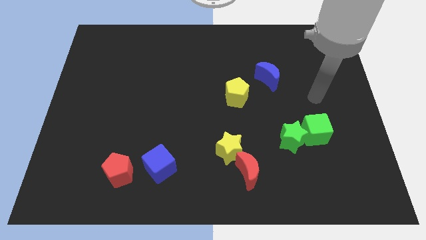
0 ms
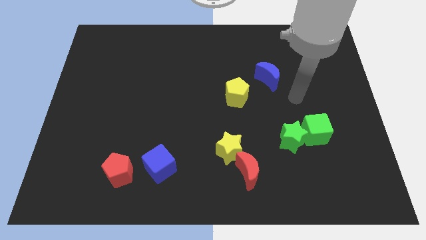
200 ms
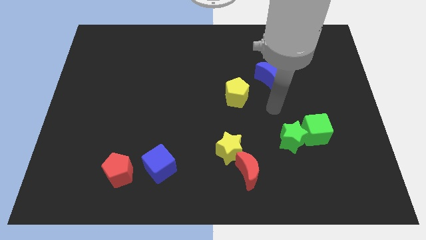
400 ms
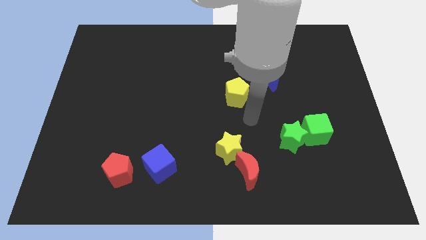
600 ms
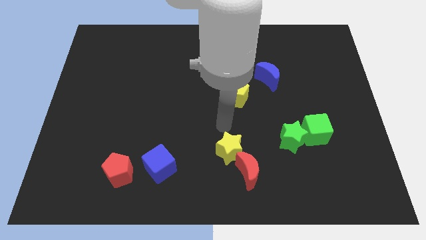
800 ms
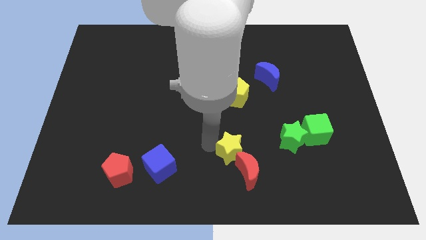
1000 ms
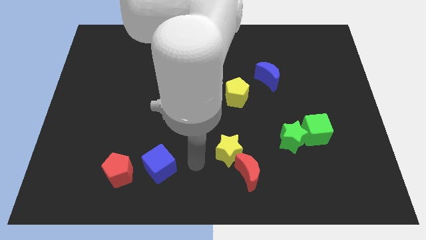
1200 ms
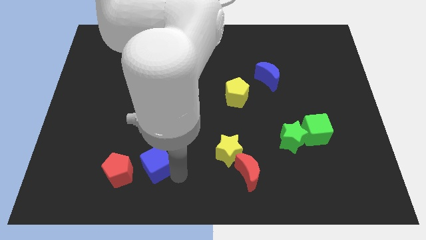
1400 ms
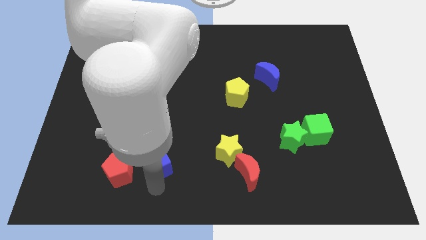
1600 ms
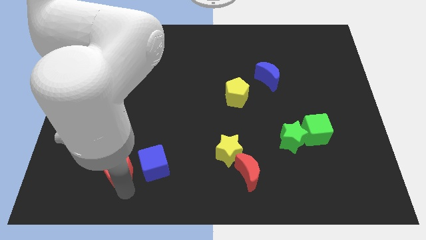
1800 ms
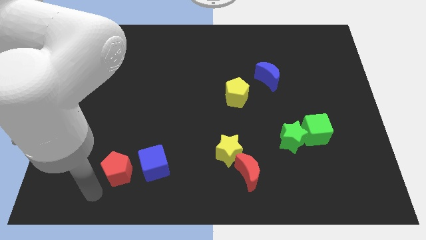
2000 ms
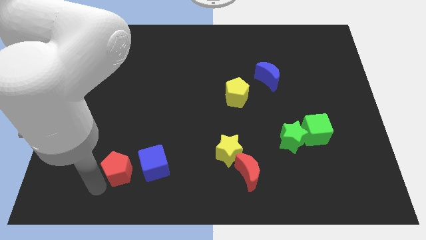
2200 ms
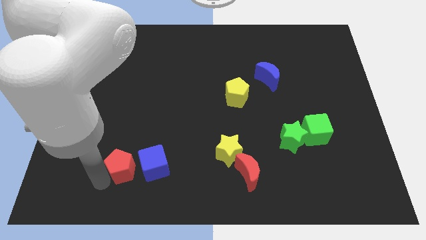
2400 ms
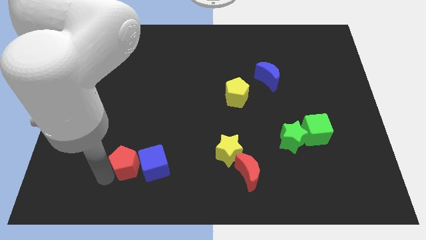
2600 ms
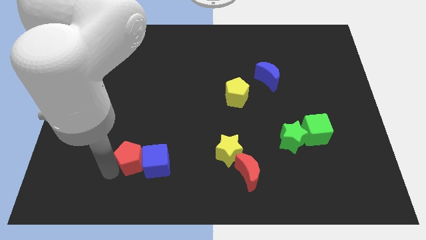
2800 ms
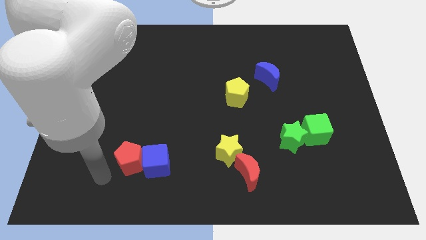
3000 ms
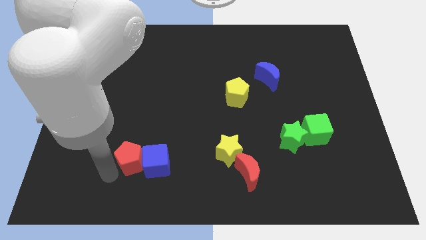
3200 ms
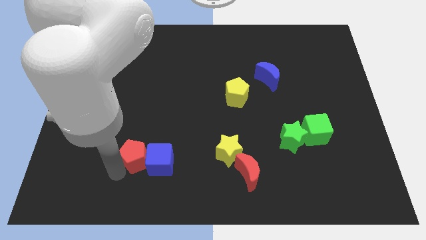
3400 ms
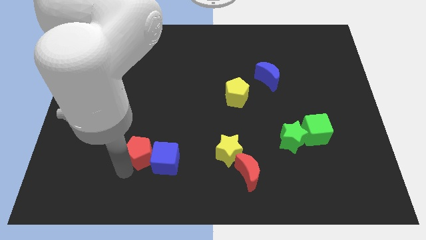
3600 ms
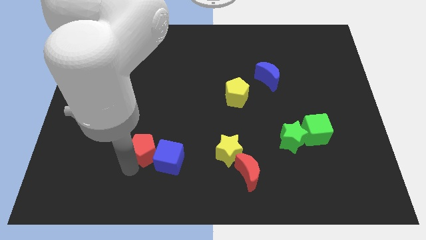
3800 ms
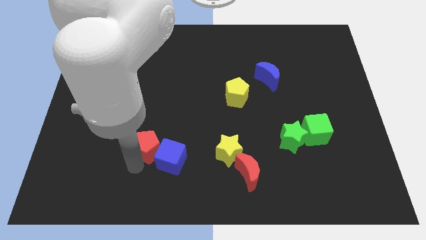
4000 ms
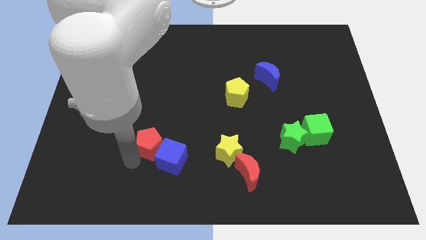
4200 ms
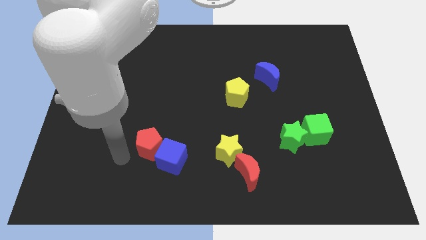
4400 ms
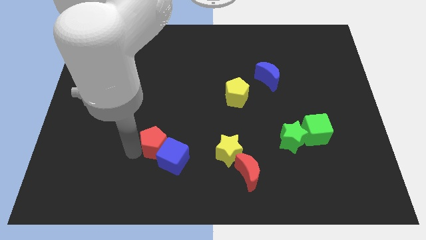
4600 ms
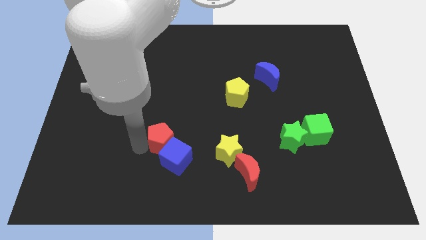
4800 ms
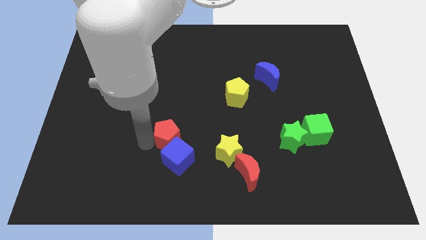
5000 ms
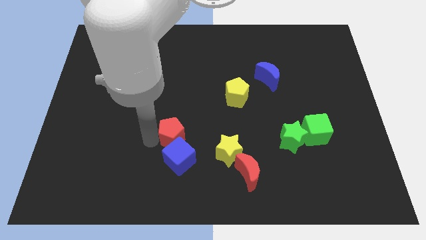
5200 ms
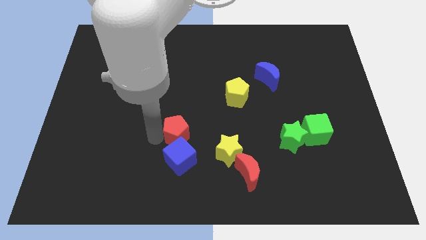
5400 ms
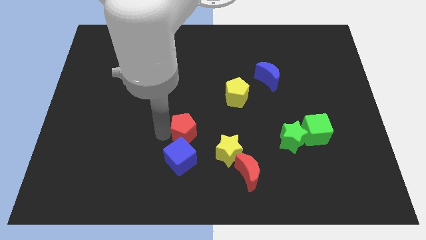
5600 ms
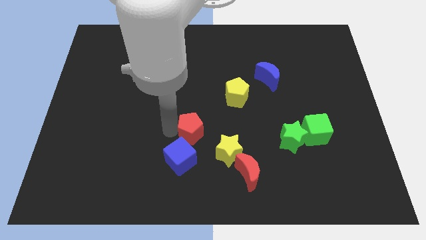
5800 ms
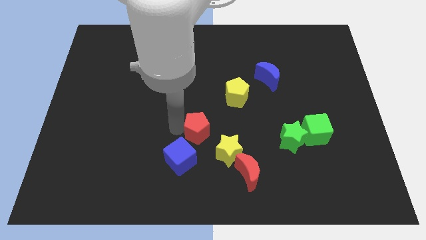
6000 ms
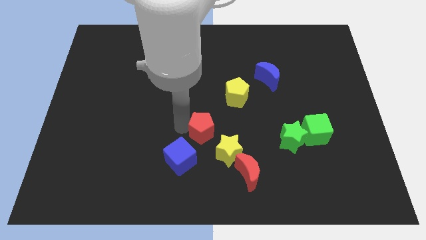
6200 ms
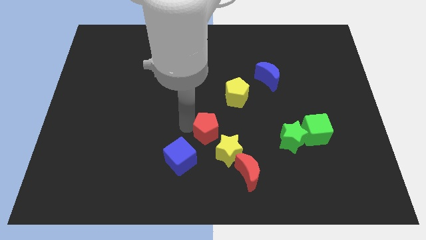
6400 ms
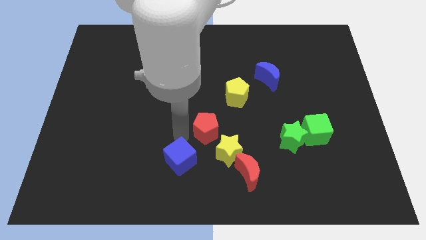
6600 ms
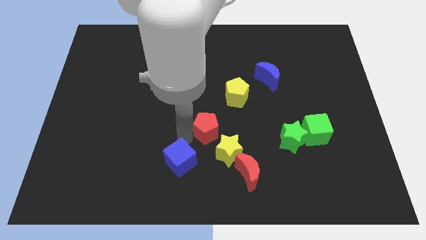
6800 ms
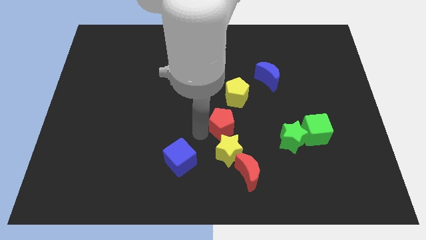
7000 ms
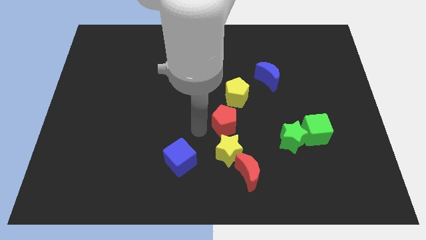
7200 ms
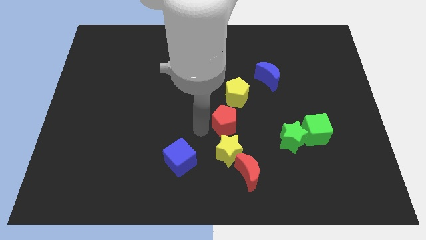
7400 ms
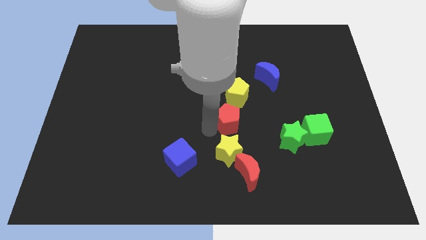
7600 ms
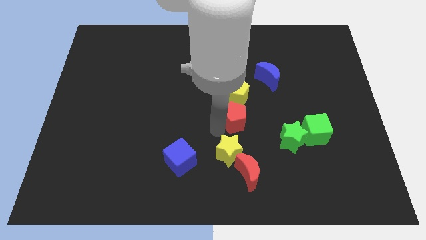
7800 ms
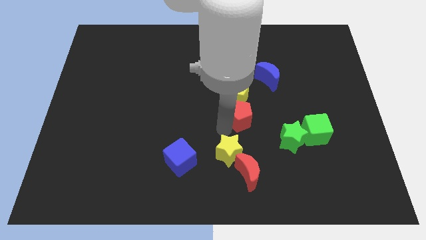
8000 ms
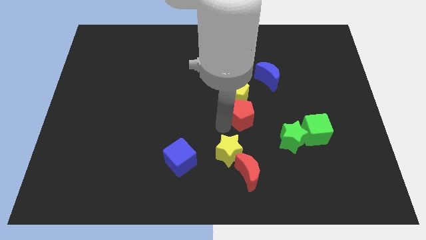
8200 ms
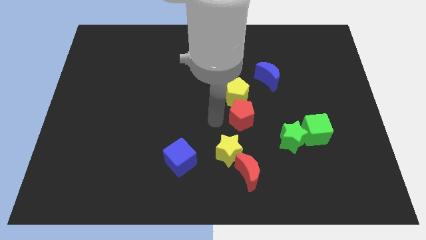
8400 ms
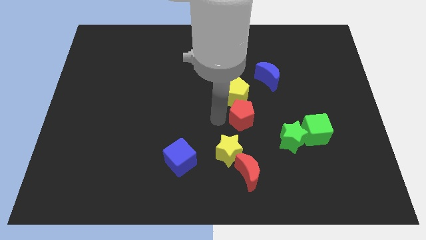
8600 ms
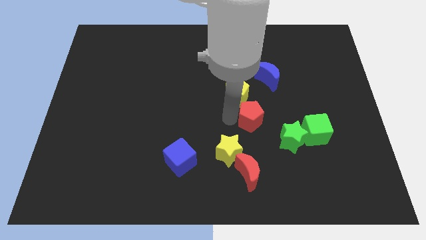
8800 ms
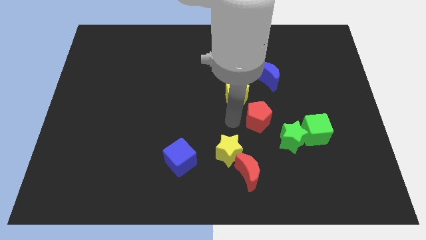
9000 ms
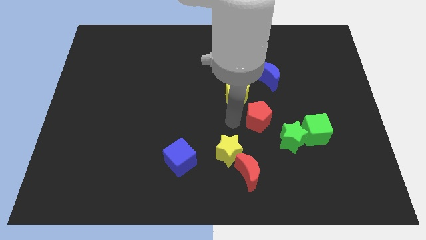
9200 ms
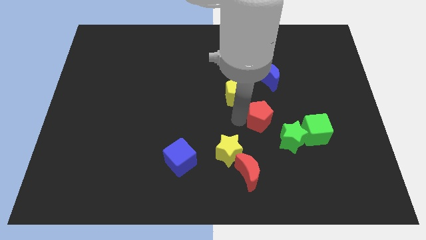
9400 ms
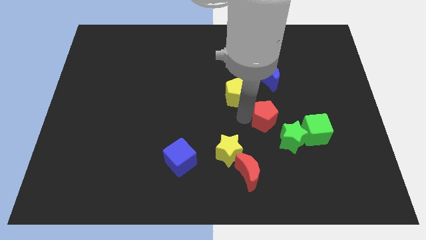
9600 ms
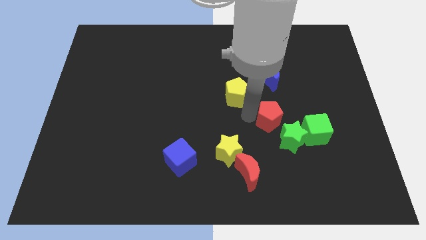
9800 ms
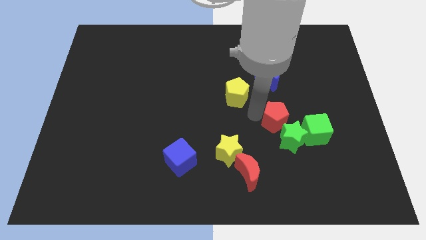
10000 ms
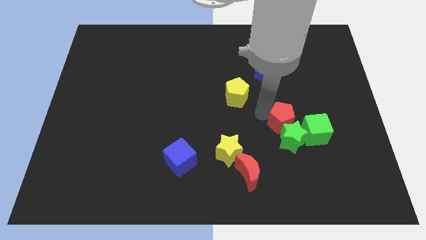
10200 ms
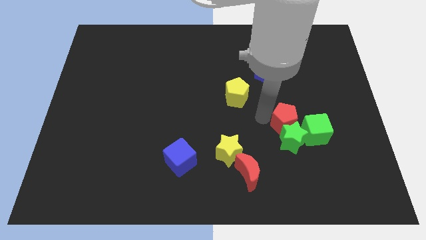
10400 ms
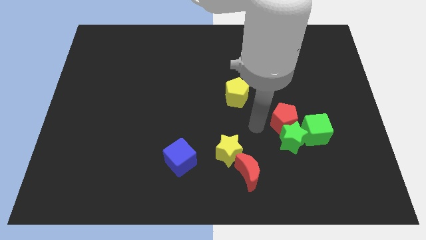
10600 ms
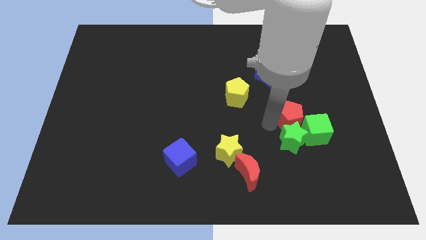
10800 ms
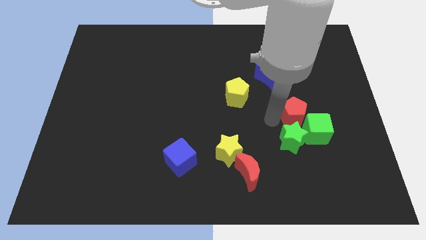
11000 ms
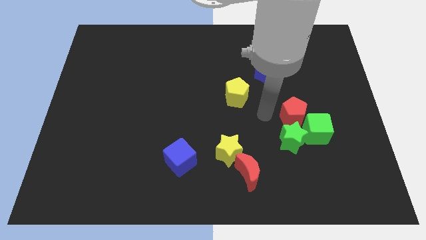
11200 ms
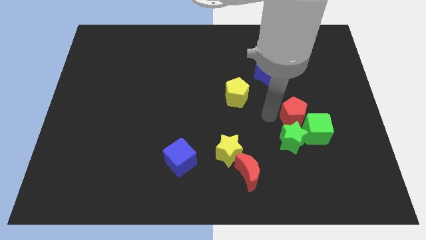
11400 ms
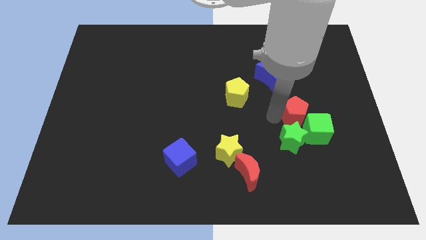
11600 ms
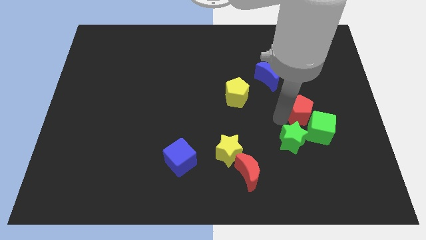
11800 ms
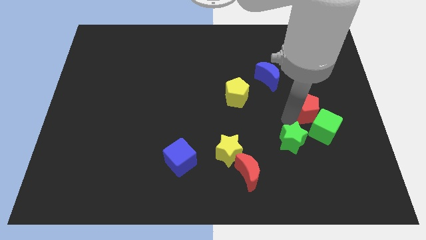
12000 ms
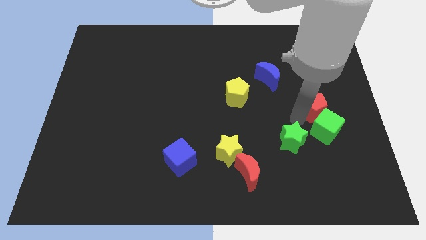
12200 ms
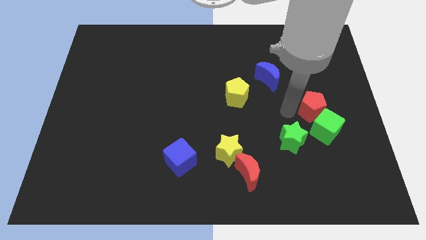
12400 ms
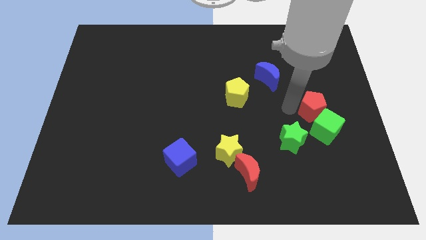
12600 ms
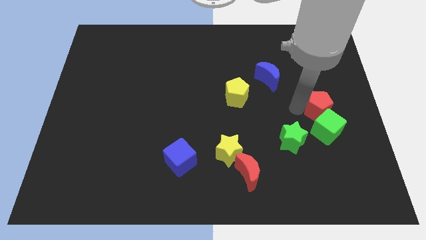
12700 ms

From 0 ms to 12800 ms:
slide the red pentagon diagonally up and to the right of the green cube
